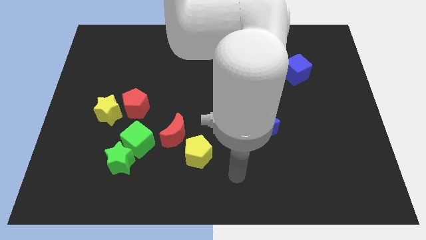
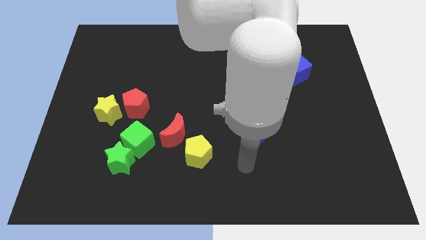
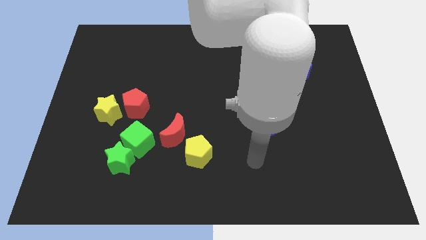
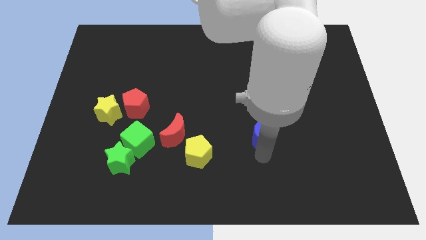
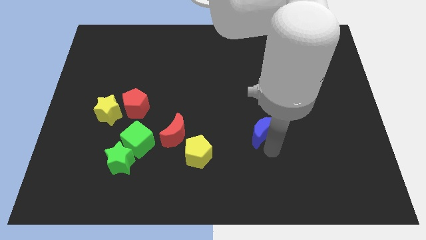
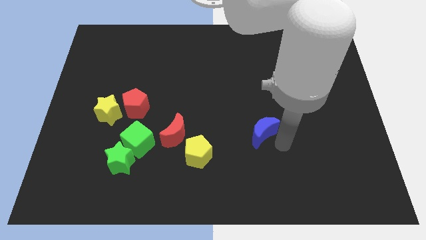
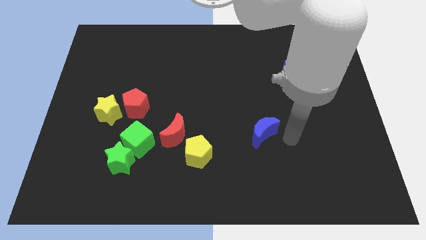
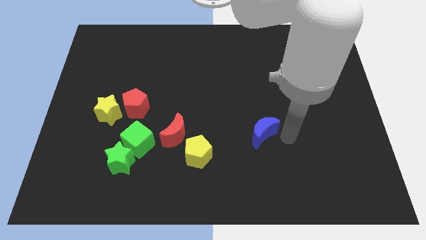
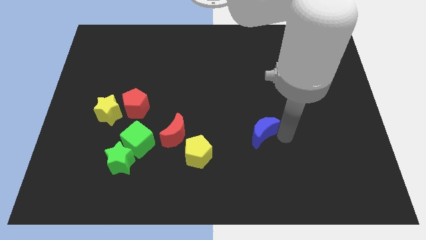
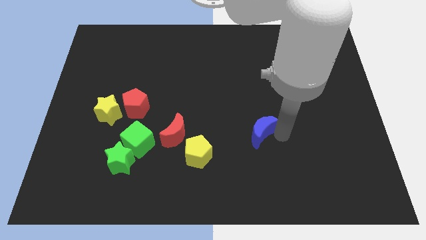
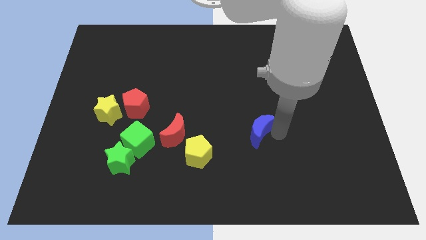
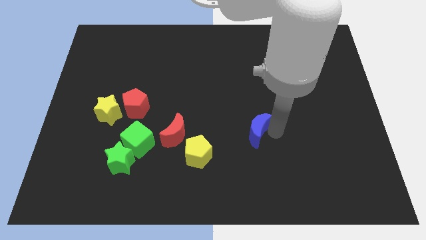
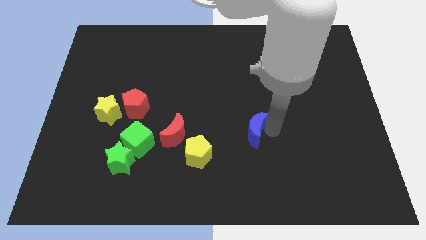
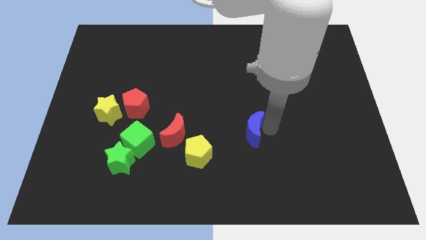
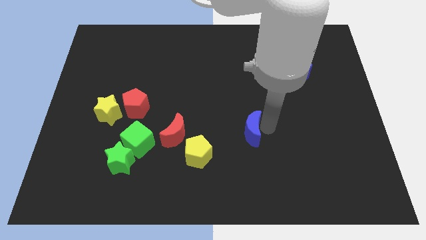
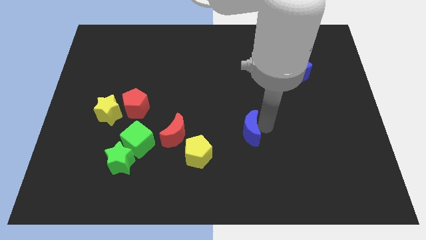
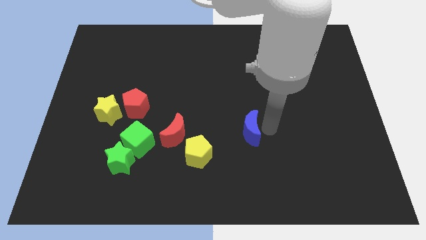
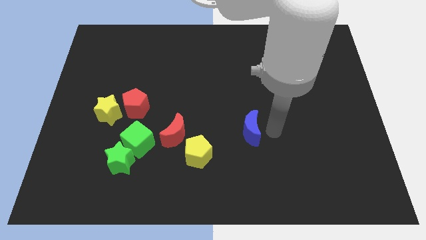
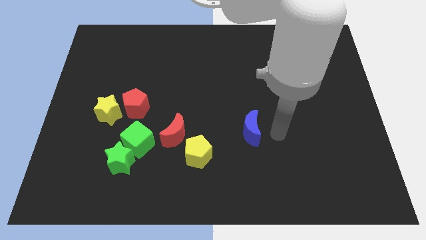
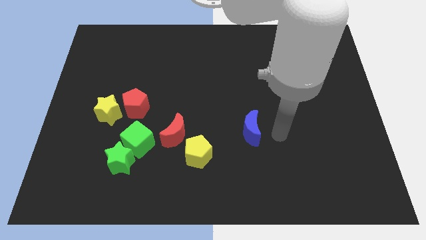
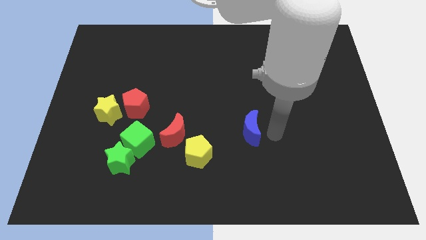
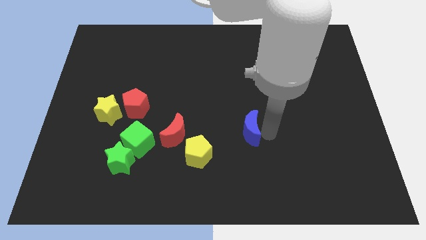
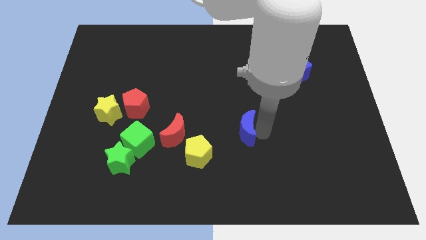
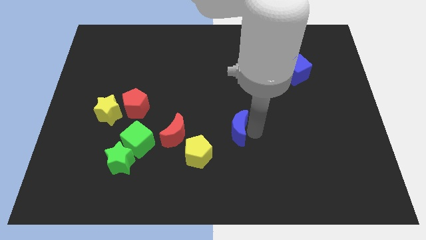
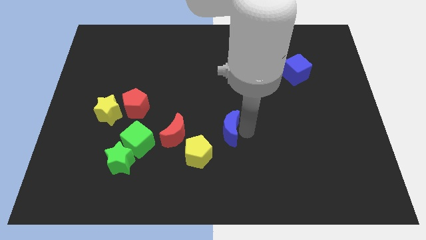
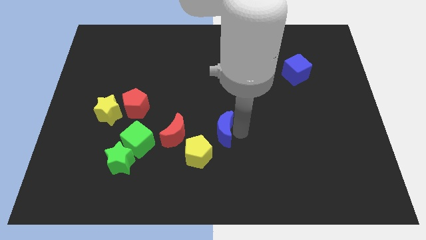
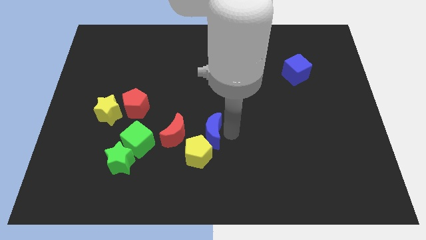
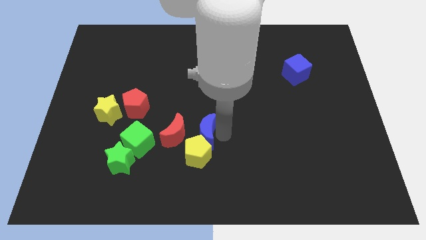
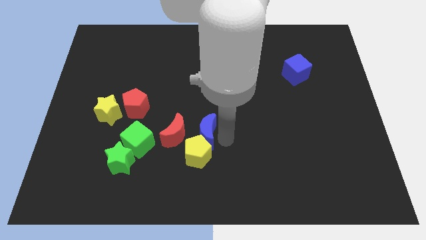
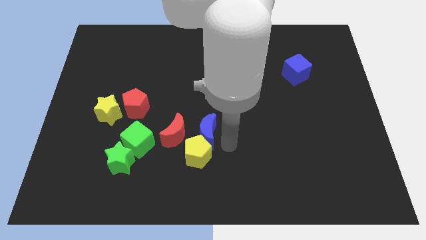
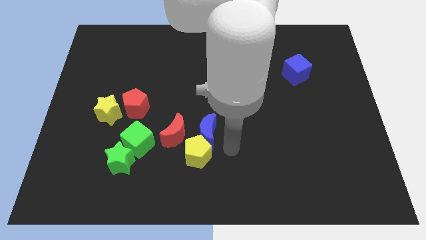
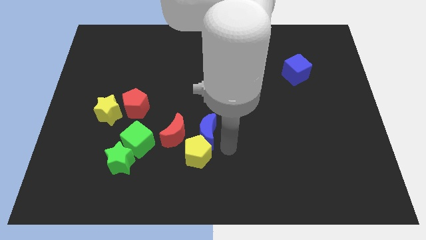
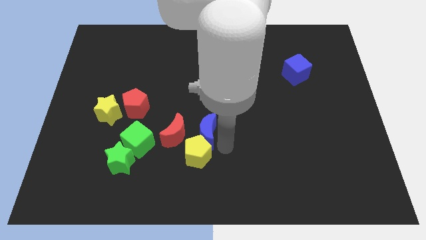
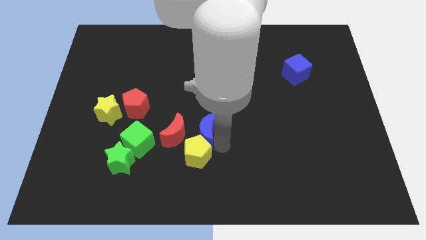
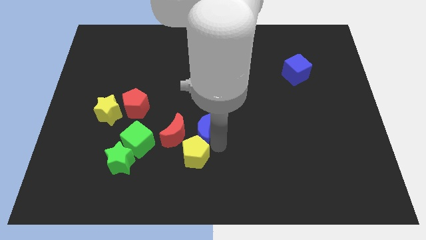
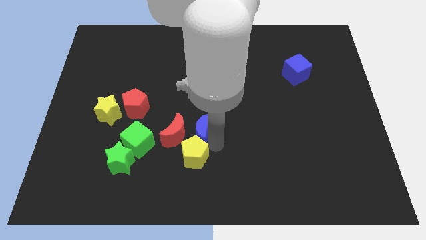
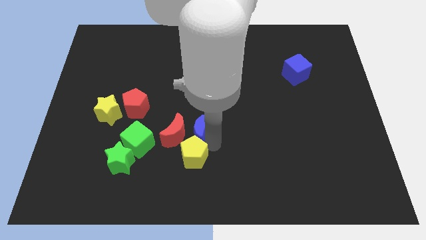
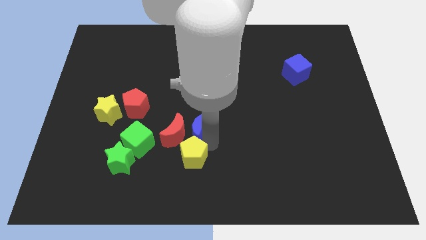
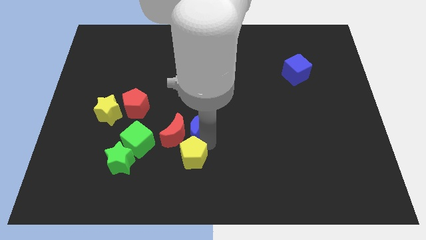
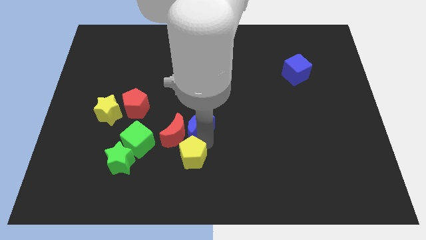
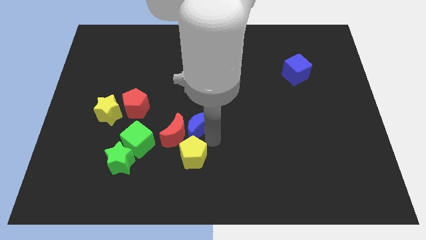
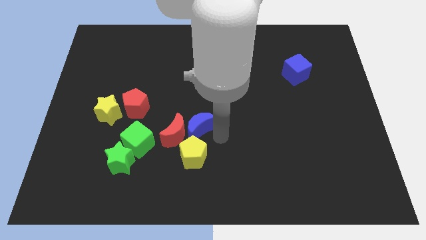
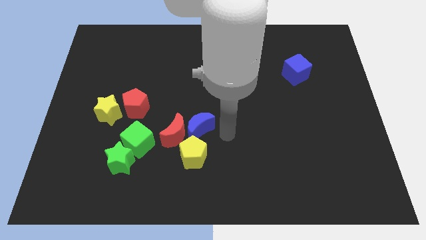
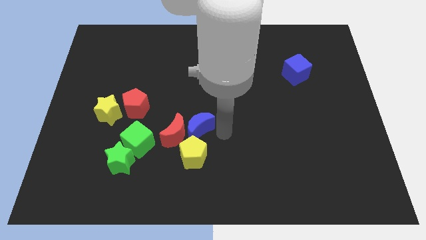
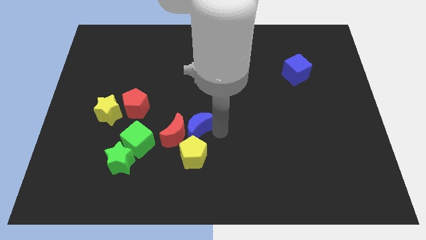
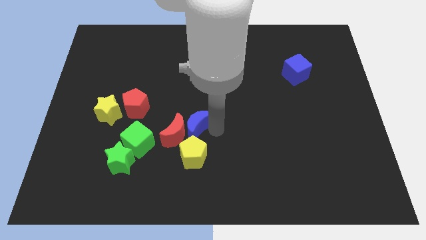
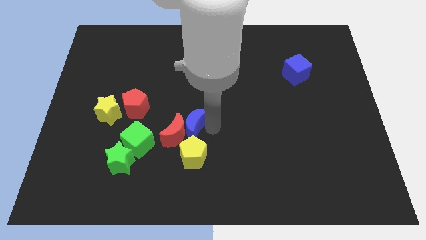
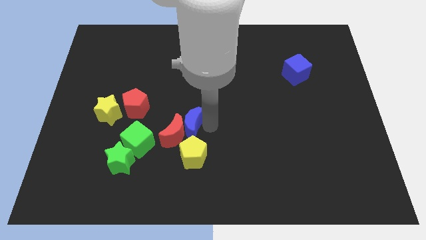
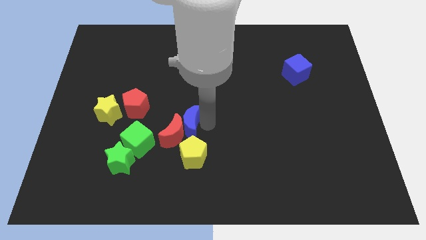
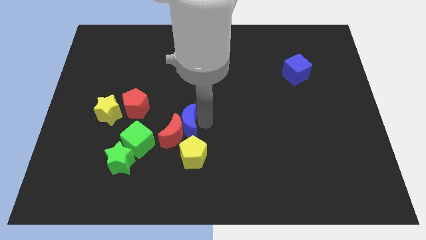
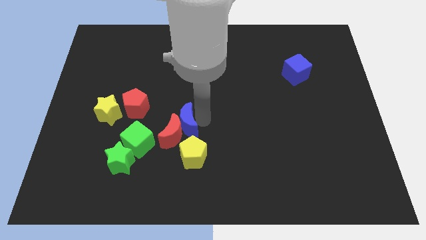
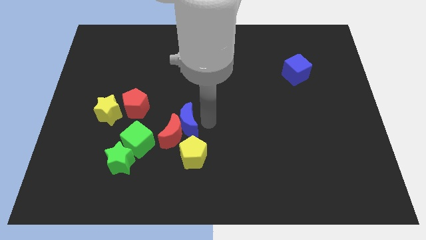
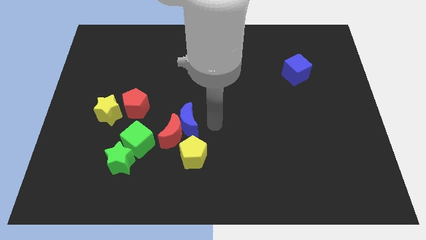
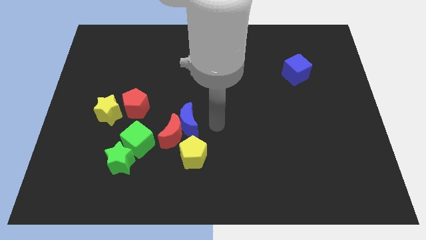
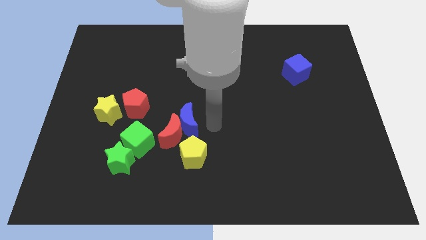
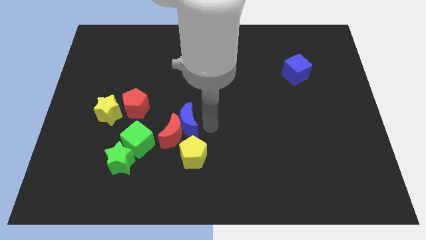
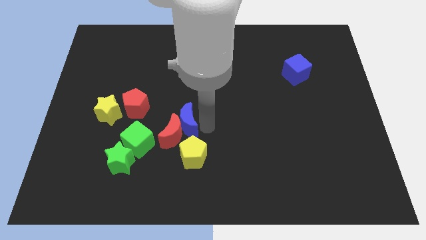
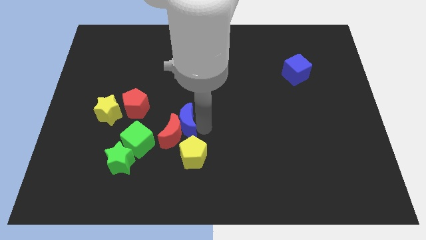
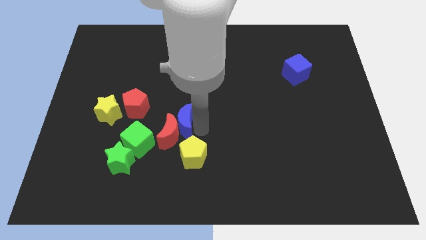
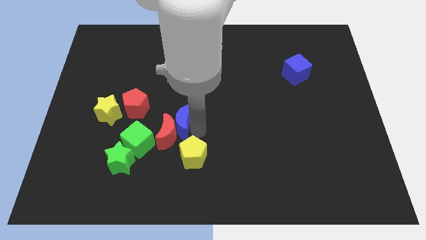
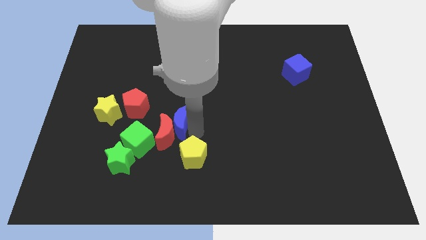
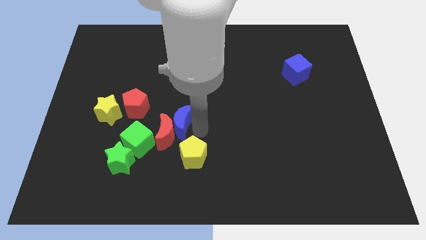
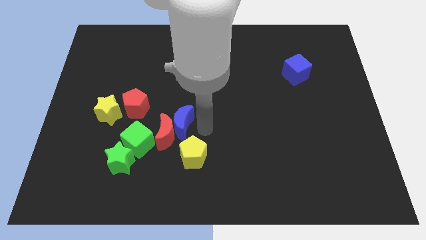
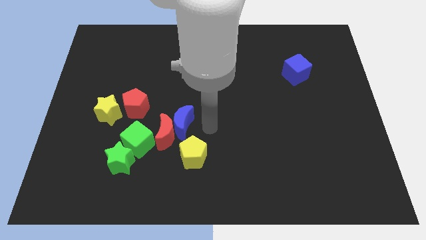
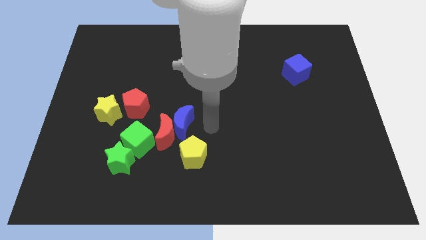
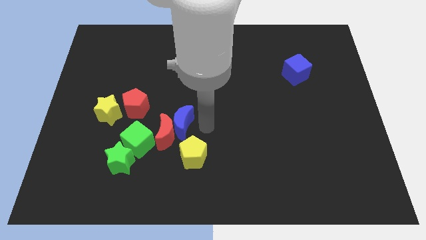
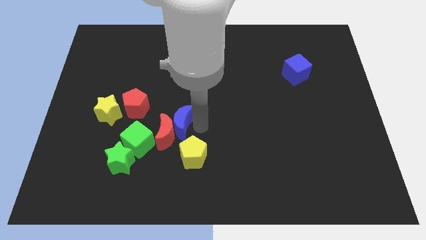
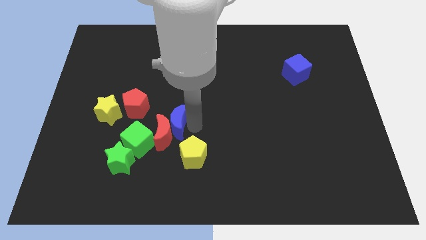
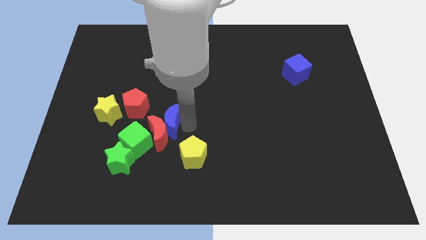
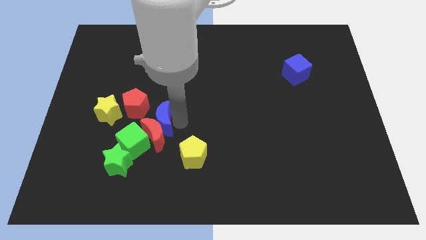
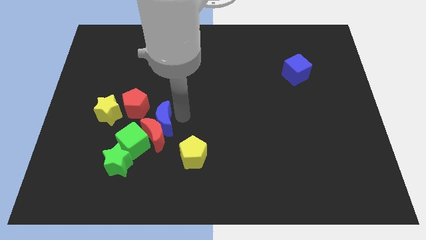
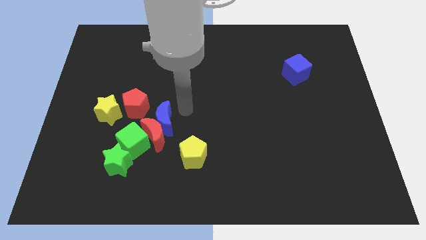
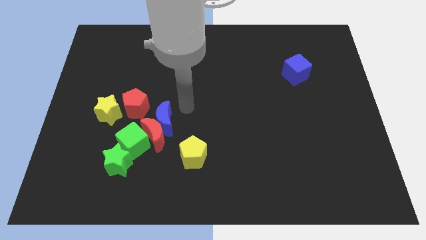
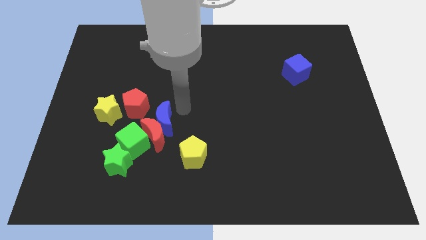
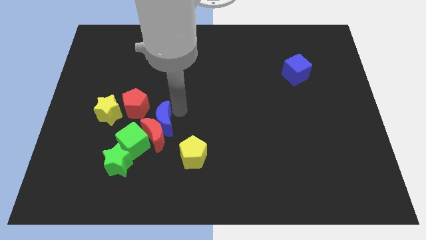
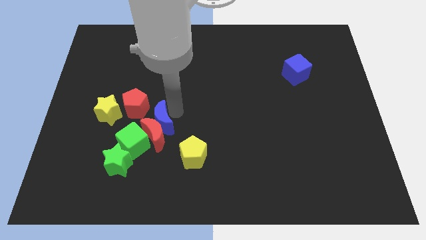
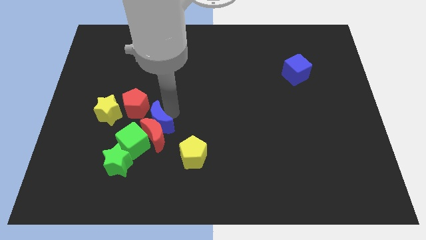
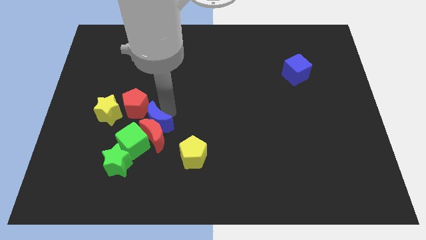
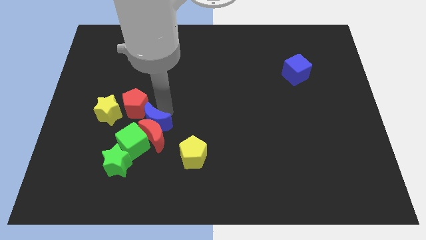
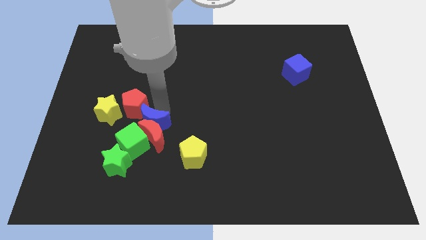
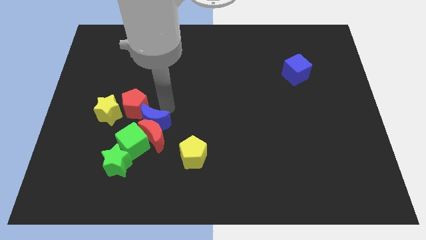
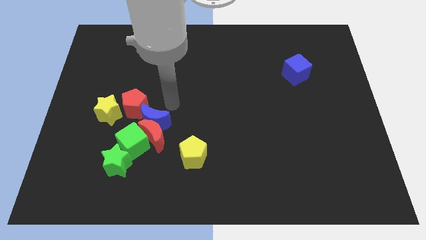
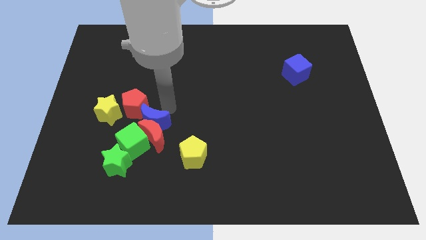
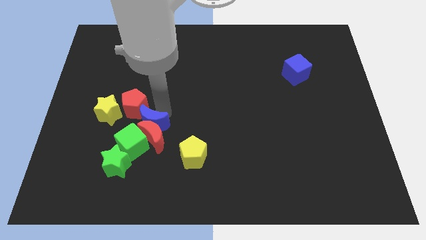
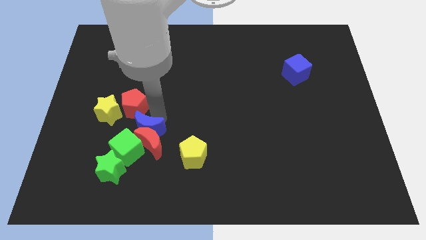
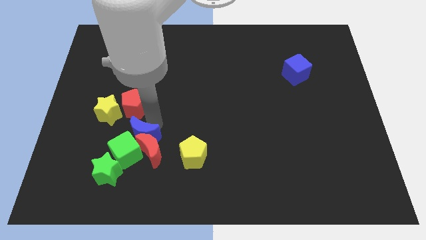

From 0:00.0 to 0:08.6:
move the blue moon to the green cube
